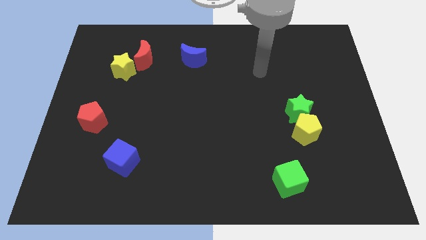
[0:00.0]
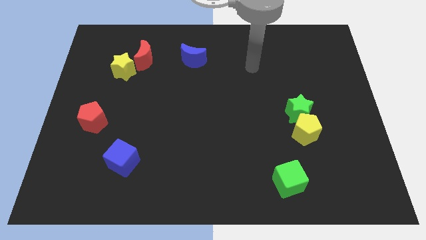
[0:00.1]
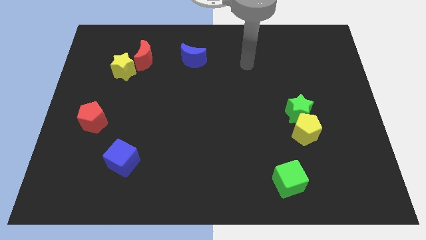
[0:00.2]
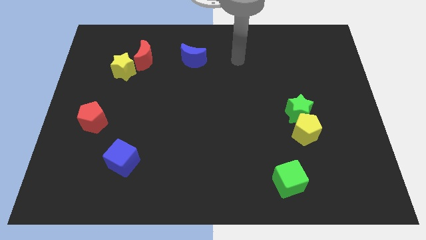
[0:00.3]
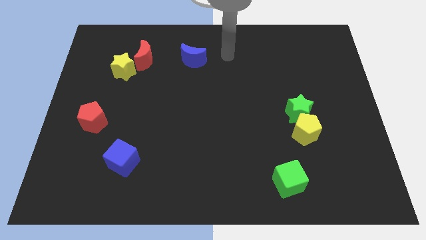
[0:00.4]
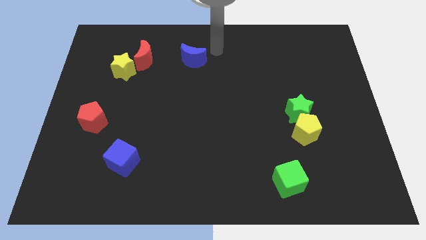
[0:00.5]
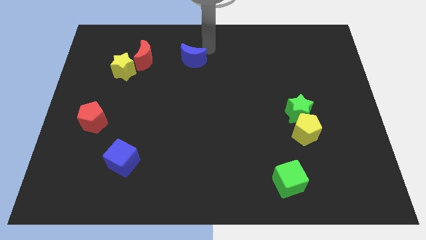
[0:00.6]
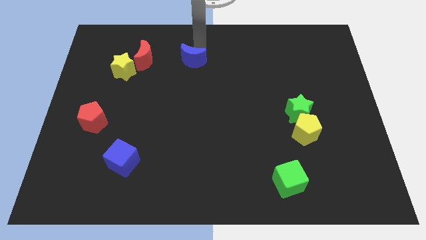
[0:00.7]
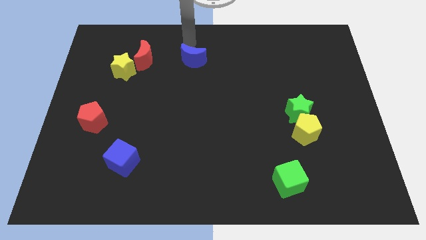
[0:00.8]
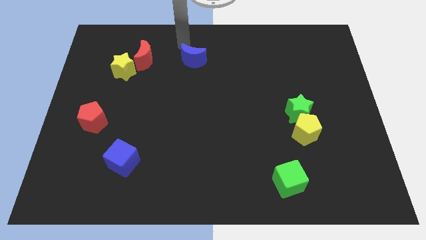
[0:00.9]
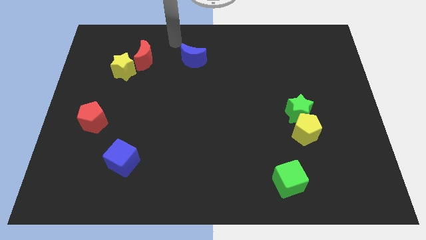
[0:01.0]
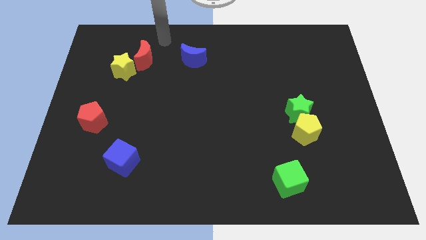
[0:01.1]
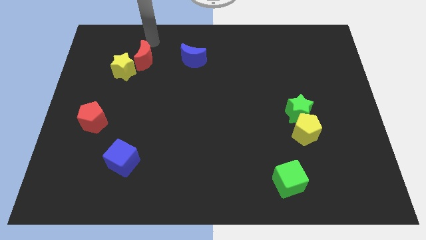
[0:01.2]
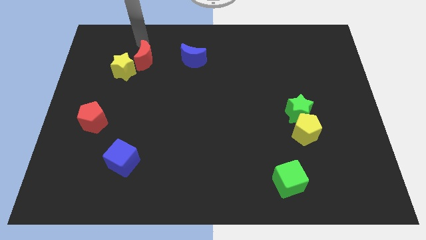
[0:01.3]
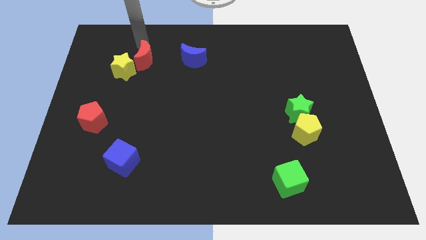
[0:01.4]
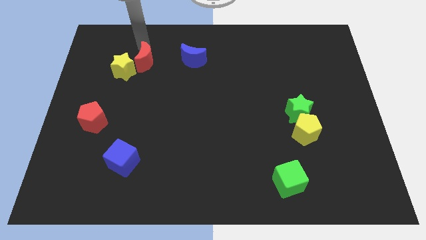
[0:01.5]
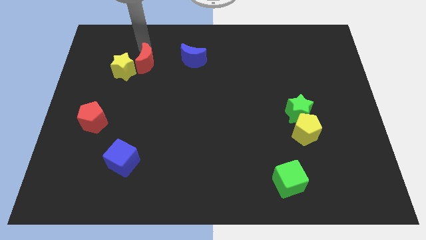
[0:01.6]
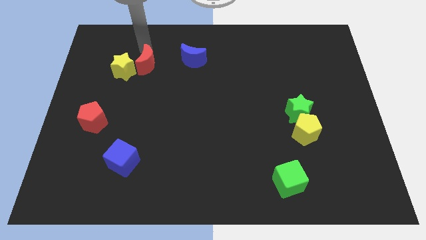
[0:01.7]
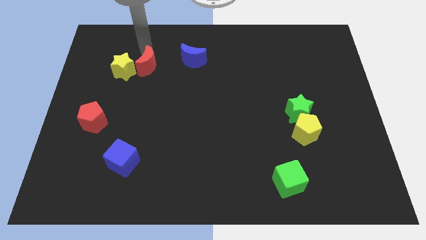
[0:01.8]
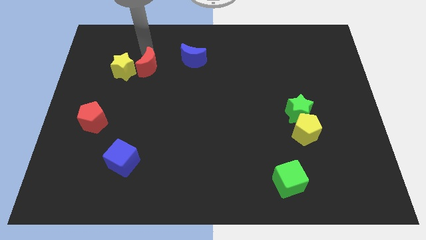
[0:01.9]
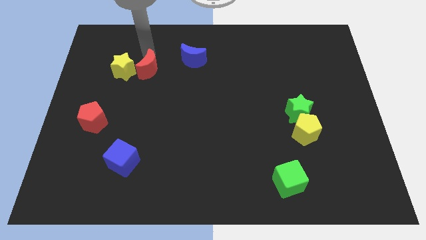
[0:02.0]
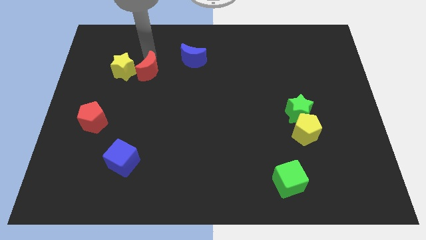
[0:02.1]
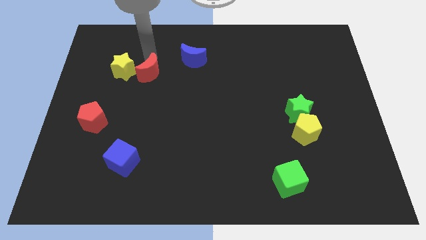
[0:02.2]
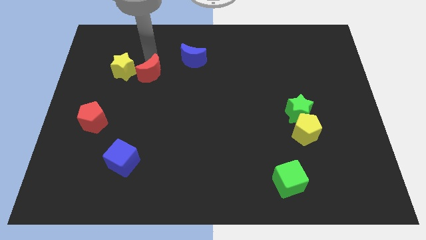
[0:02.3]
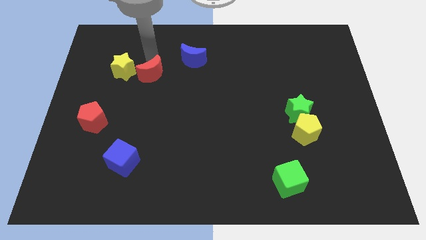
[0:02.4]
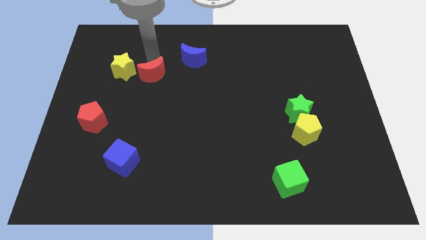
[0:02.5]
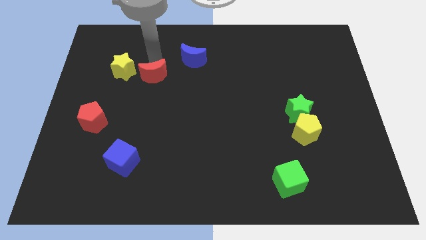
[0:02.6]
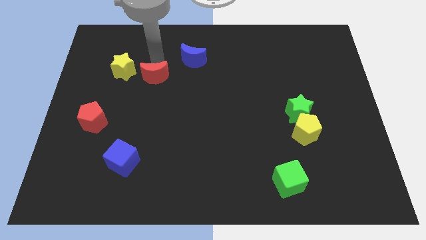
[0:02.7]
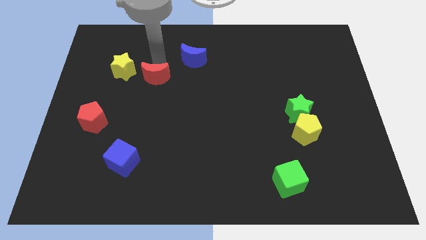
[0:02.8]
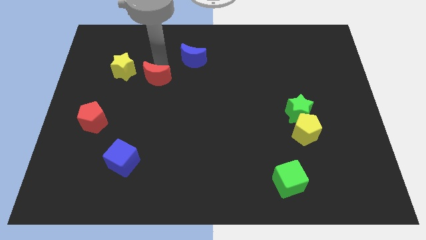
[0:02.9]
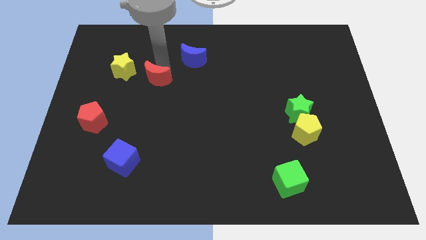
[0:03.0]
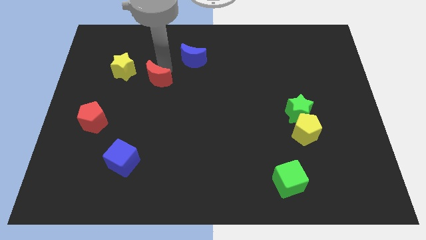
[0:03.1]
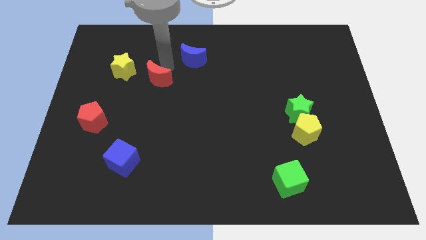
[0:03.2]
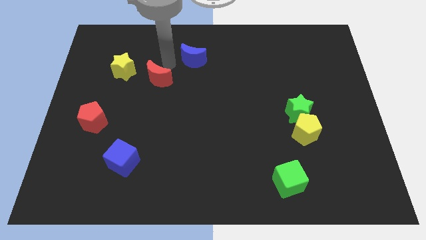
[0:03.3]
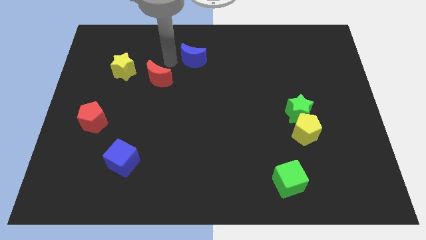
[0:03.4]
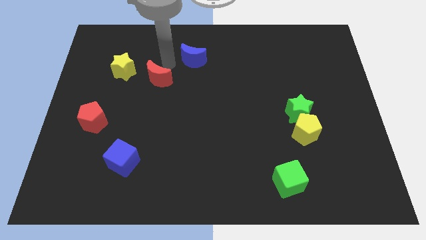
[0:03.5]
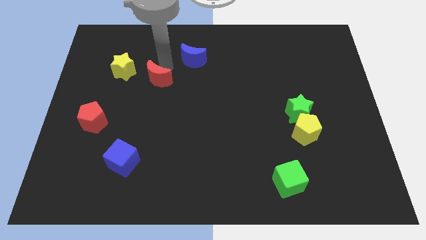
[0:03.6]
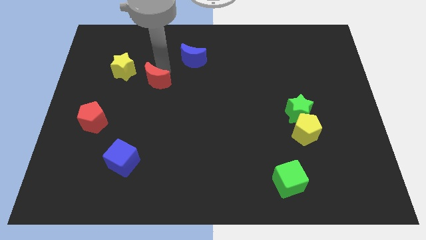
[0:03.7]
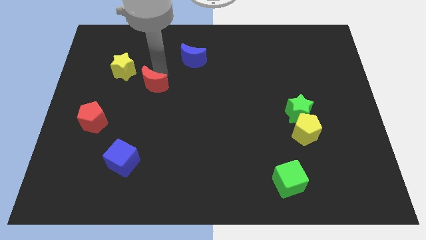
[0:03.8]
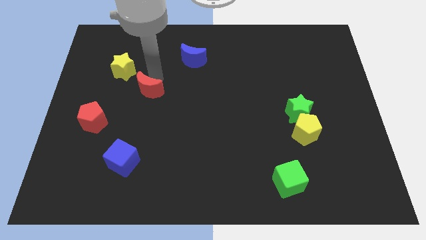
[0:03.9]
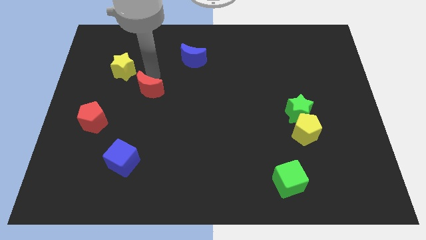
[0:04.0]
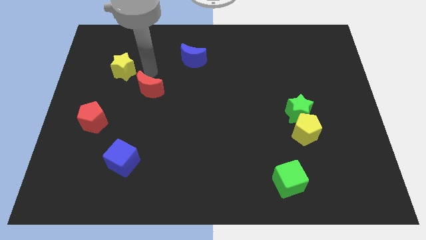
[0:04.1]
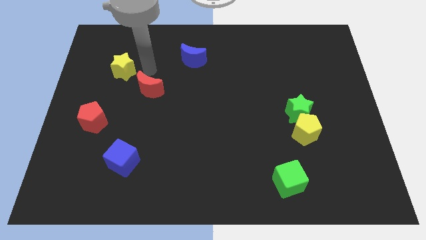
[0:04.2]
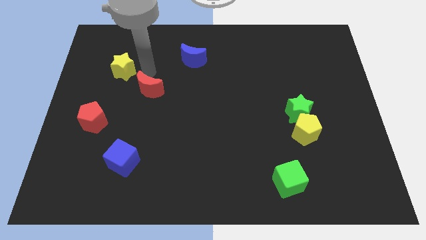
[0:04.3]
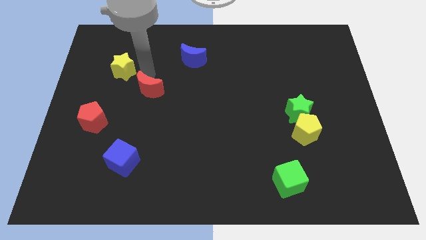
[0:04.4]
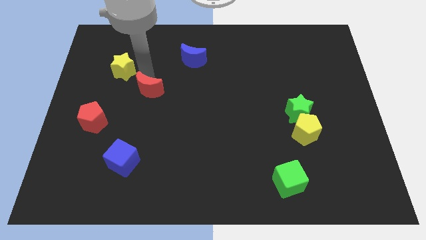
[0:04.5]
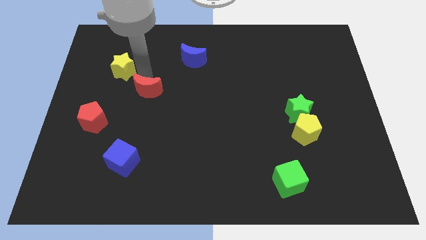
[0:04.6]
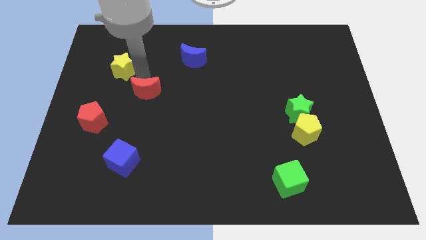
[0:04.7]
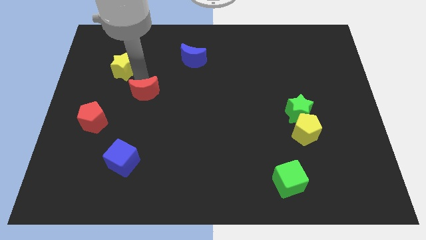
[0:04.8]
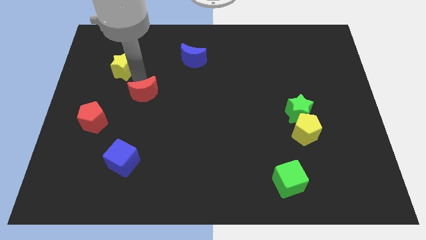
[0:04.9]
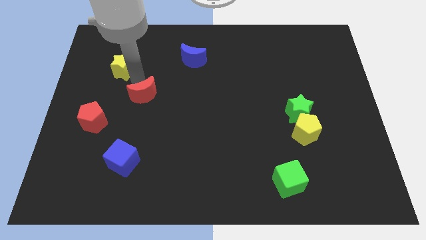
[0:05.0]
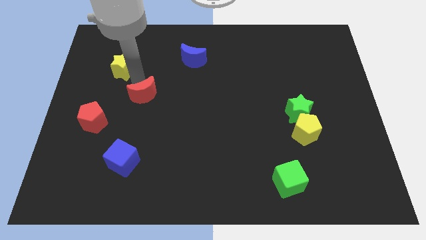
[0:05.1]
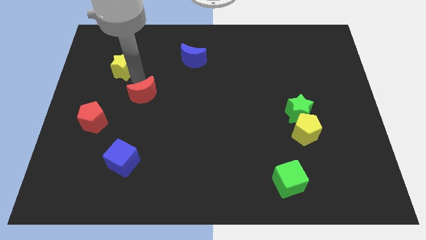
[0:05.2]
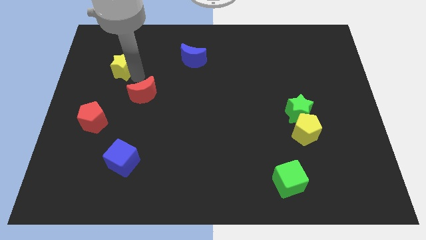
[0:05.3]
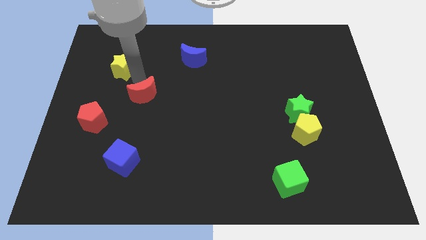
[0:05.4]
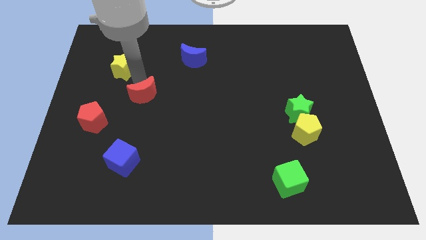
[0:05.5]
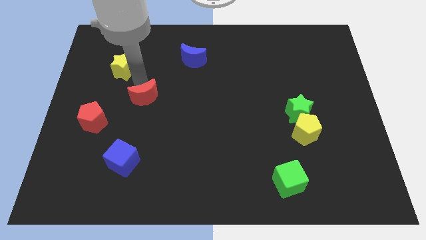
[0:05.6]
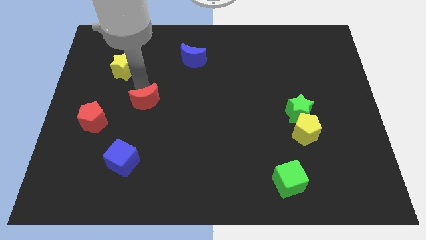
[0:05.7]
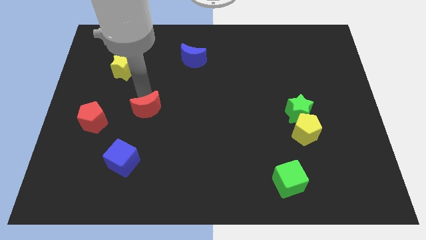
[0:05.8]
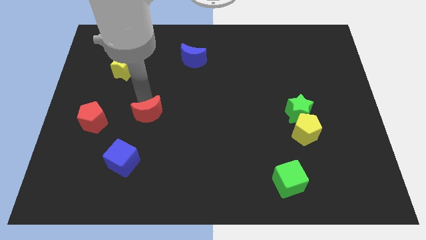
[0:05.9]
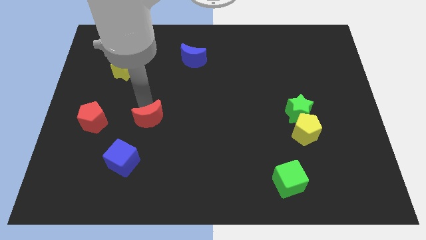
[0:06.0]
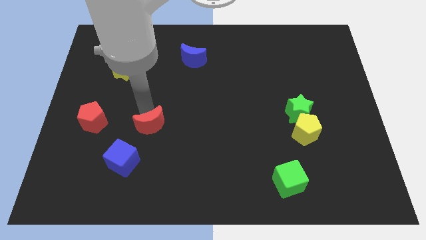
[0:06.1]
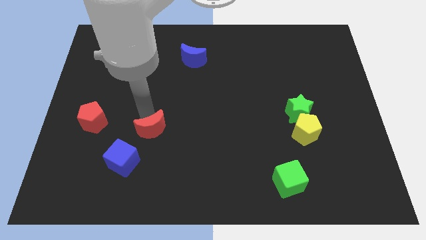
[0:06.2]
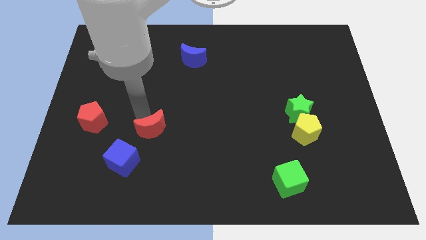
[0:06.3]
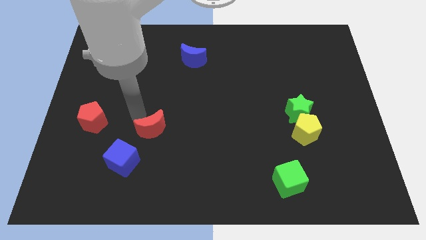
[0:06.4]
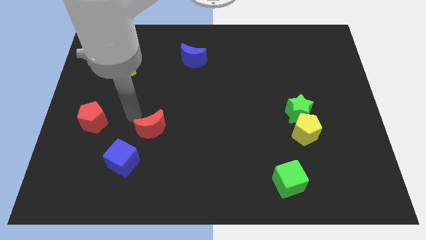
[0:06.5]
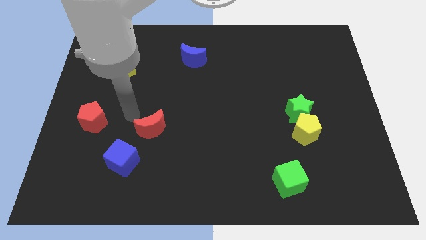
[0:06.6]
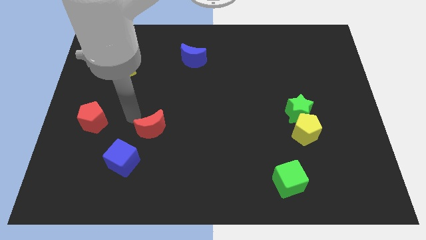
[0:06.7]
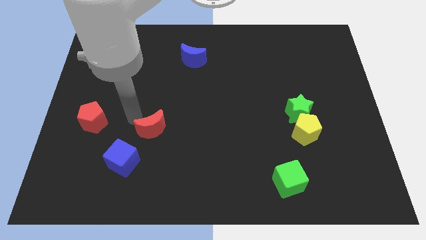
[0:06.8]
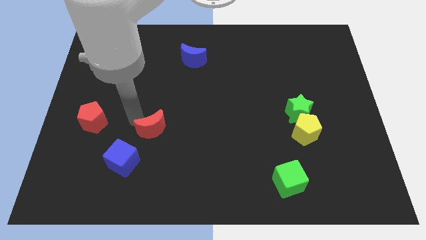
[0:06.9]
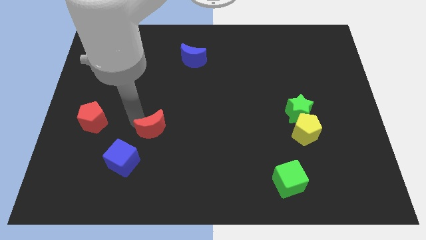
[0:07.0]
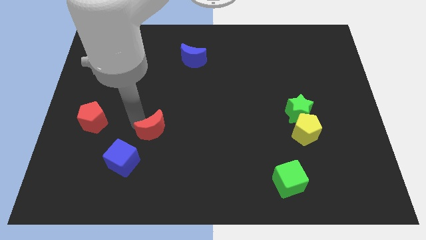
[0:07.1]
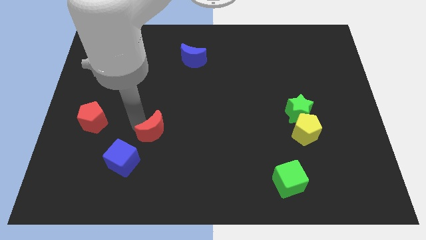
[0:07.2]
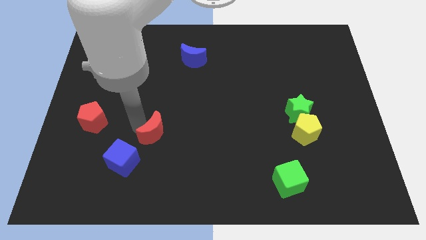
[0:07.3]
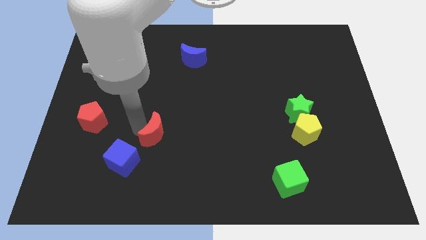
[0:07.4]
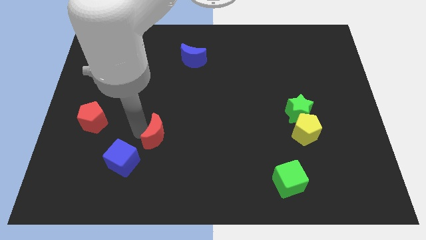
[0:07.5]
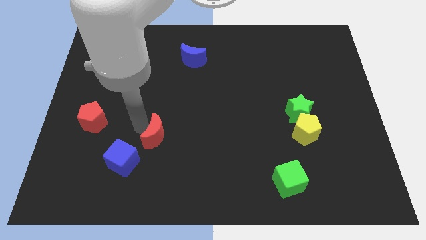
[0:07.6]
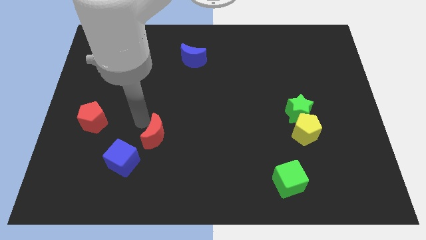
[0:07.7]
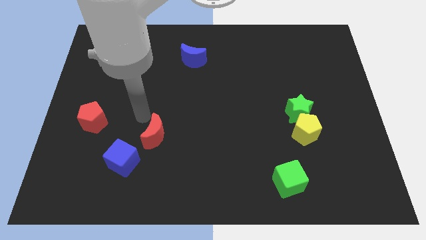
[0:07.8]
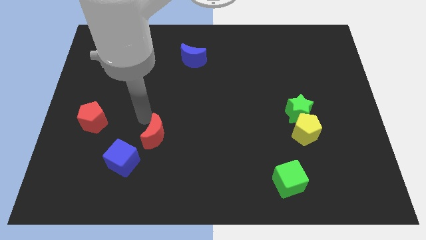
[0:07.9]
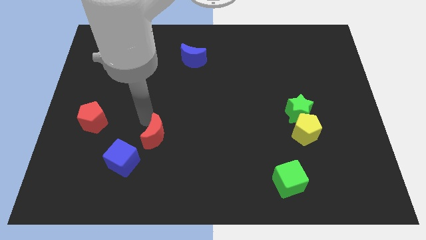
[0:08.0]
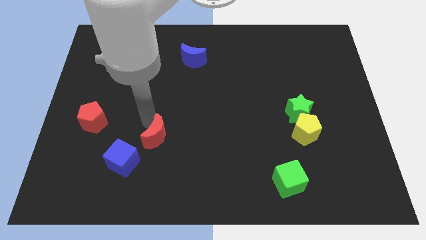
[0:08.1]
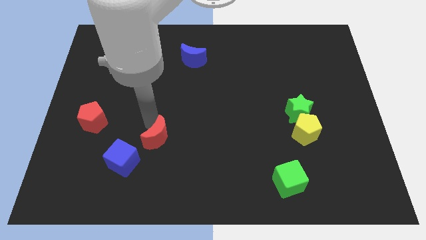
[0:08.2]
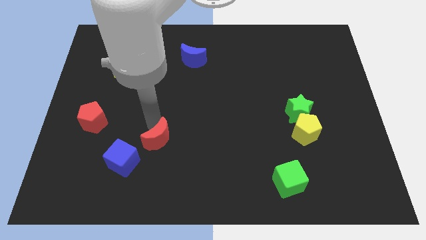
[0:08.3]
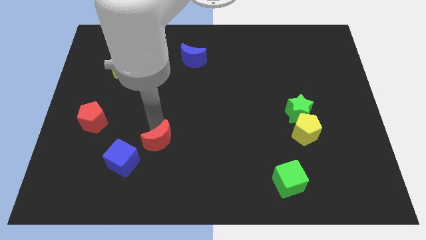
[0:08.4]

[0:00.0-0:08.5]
slide the red moon to the right side of the blue cube
